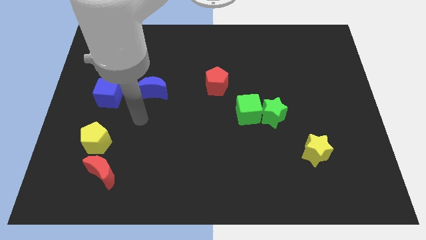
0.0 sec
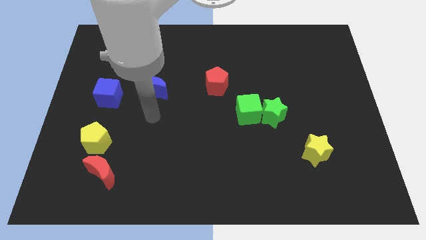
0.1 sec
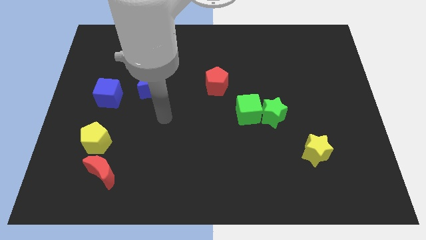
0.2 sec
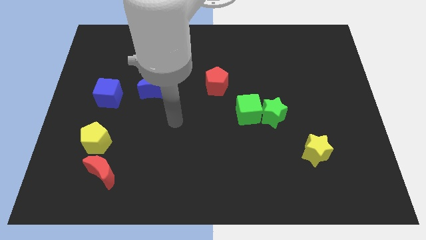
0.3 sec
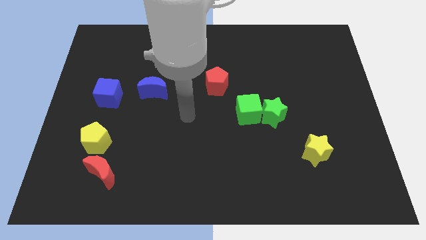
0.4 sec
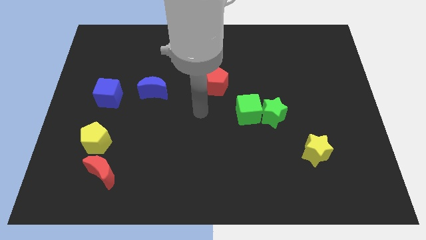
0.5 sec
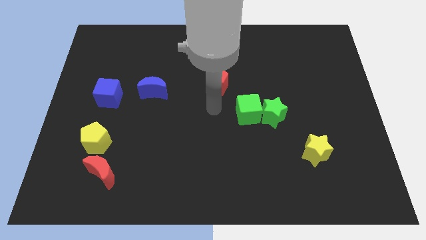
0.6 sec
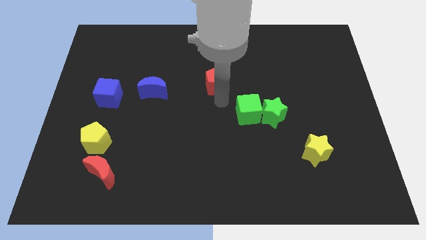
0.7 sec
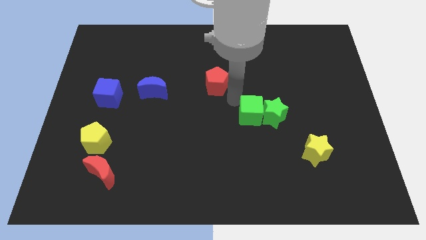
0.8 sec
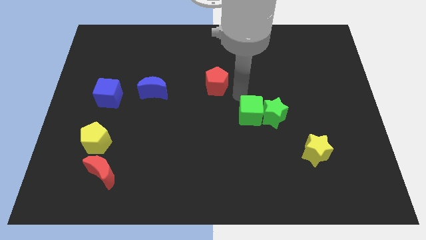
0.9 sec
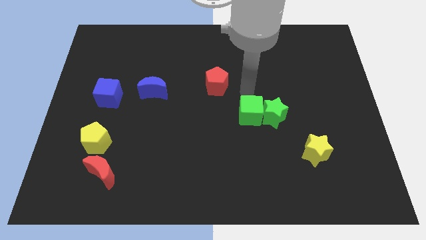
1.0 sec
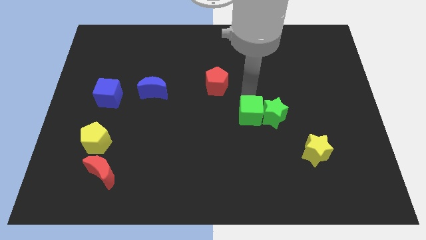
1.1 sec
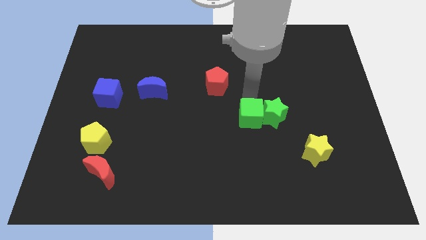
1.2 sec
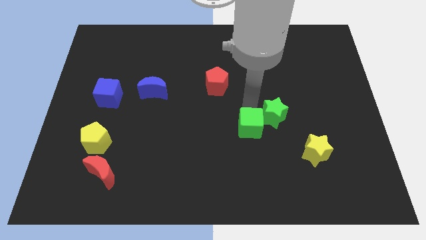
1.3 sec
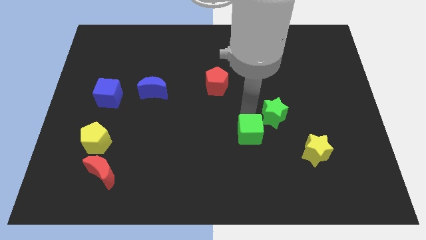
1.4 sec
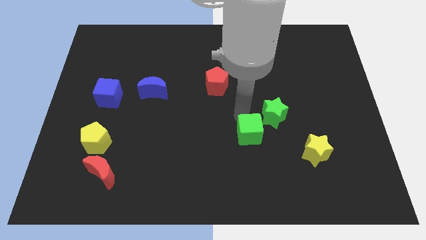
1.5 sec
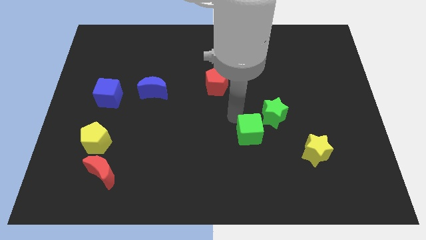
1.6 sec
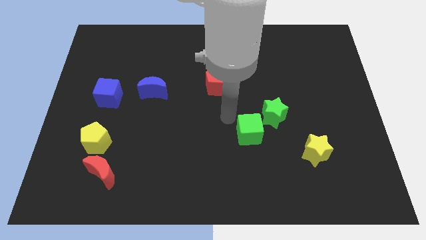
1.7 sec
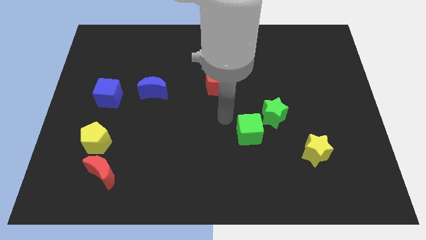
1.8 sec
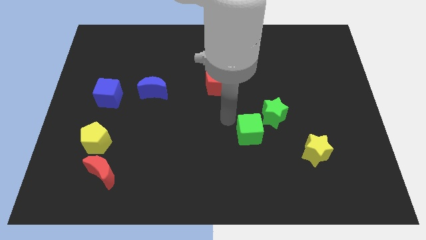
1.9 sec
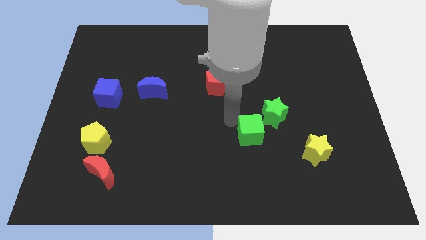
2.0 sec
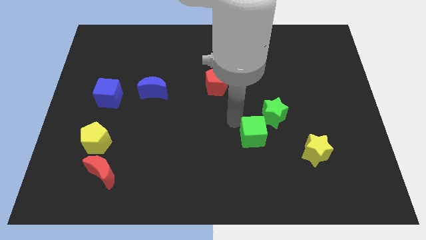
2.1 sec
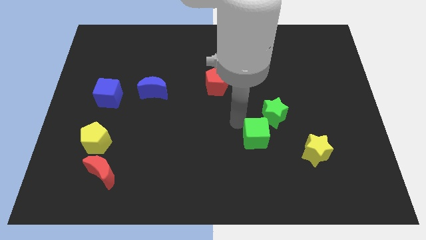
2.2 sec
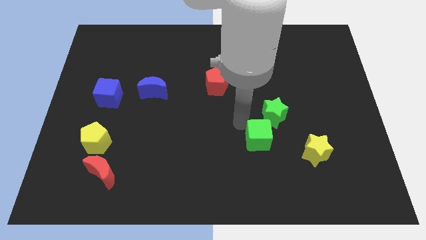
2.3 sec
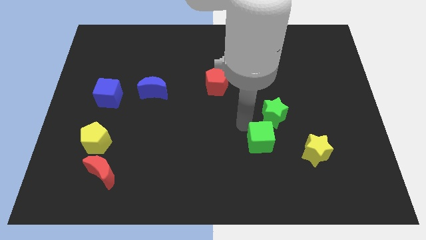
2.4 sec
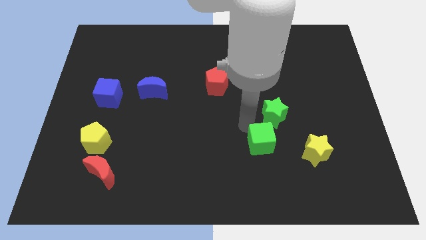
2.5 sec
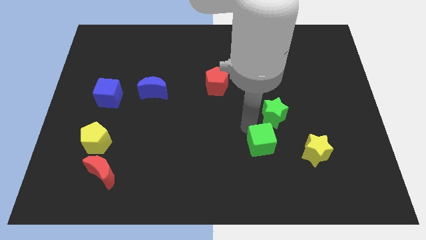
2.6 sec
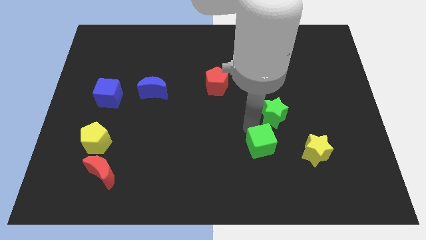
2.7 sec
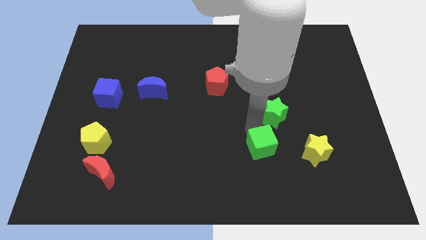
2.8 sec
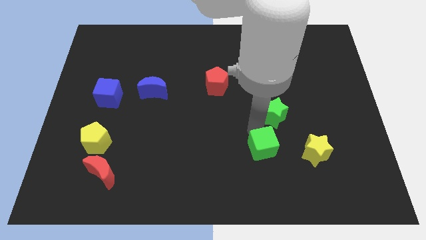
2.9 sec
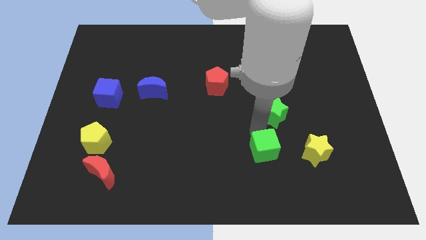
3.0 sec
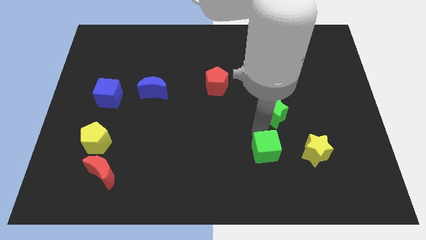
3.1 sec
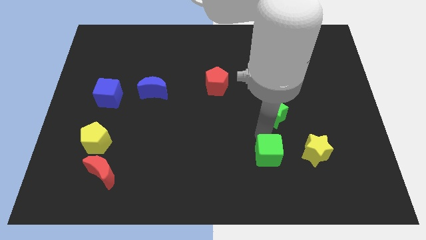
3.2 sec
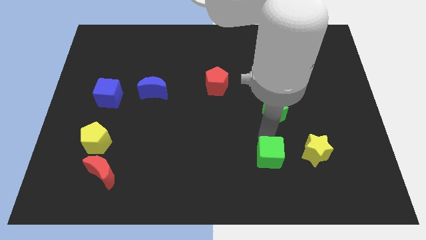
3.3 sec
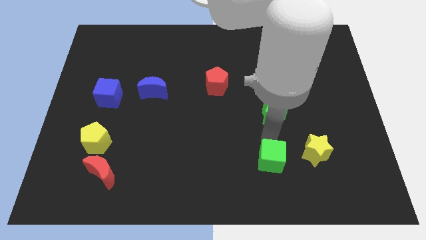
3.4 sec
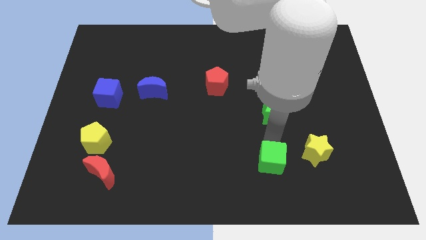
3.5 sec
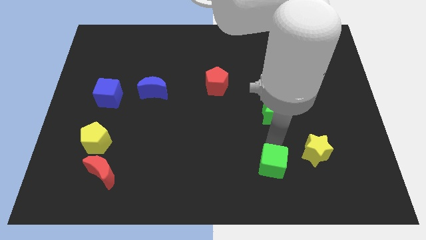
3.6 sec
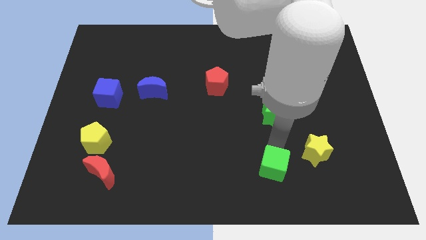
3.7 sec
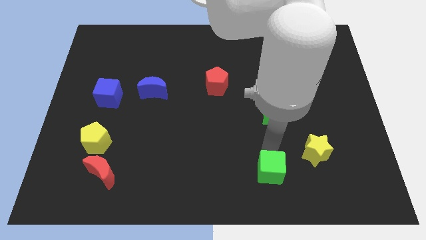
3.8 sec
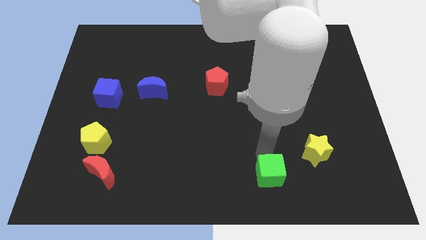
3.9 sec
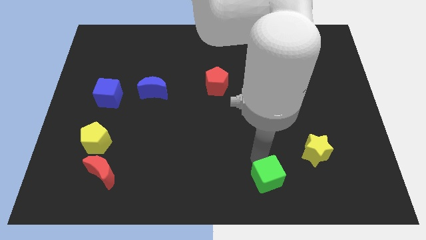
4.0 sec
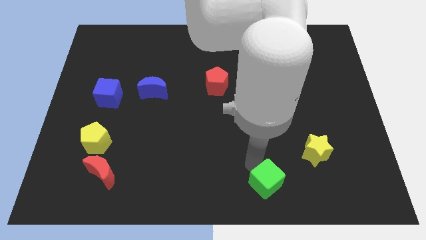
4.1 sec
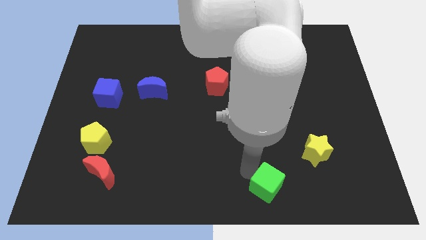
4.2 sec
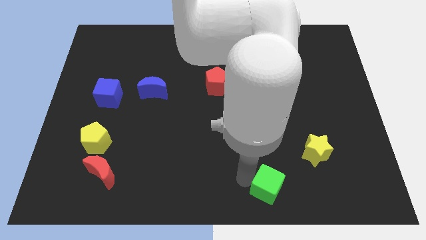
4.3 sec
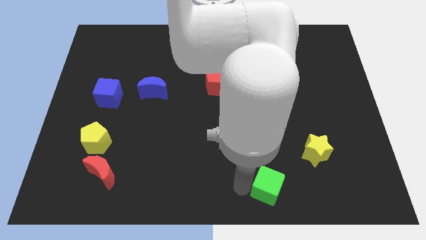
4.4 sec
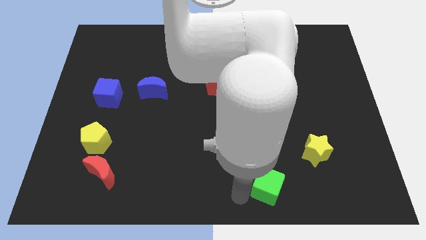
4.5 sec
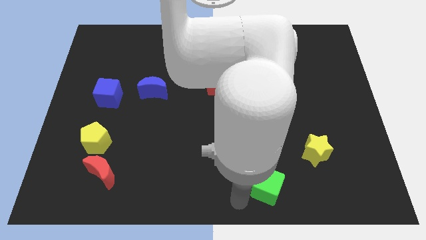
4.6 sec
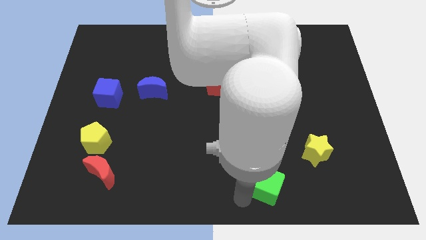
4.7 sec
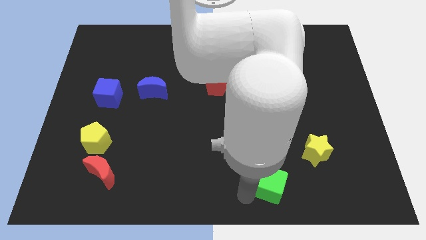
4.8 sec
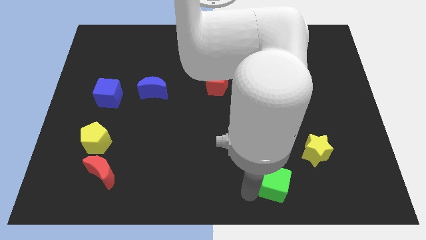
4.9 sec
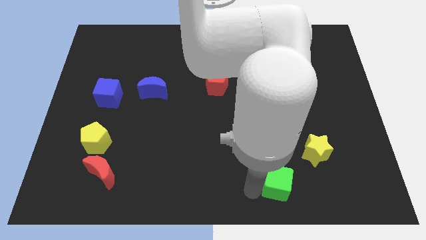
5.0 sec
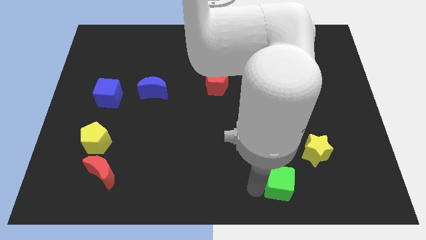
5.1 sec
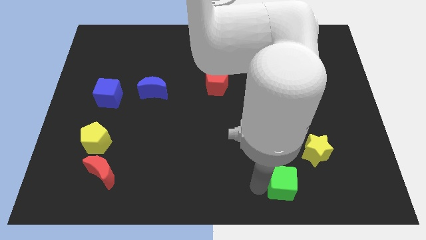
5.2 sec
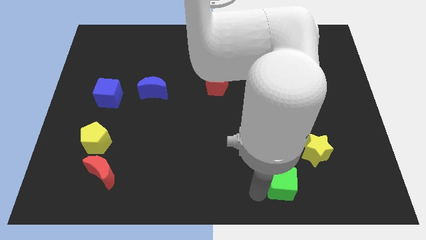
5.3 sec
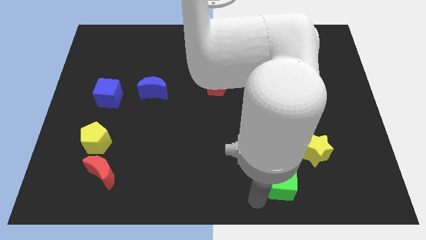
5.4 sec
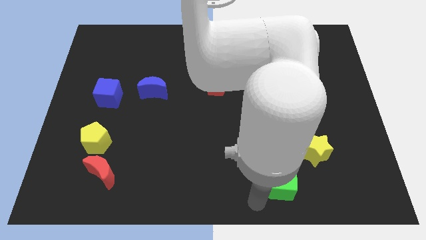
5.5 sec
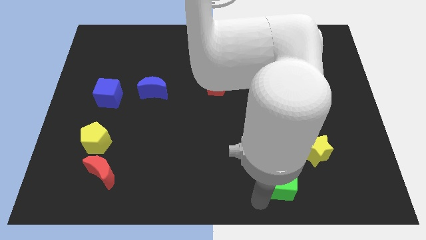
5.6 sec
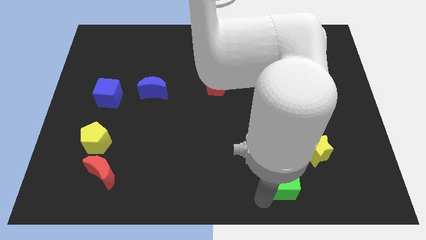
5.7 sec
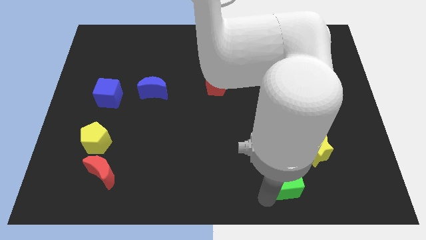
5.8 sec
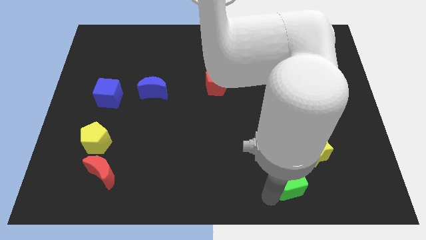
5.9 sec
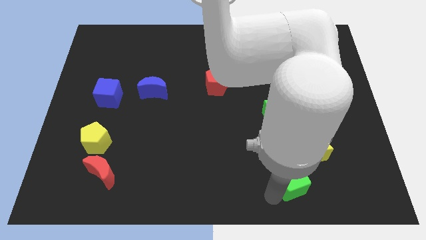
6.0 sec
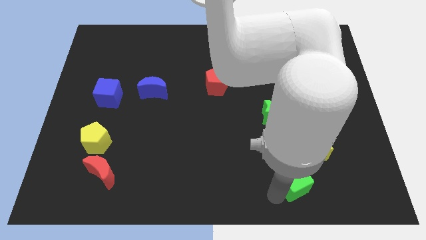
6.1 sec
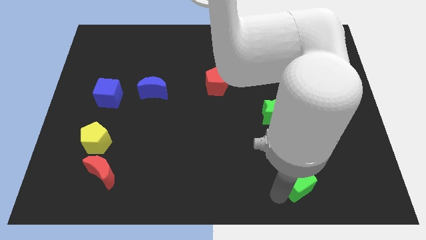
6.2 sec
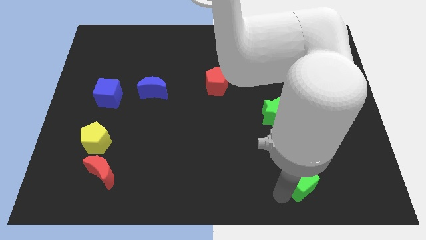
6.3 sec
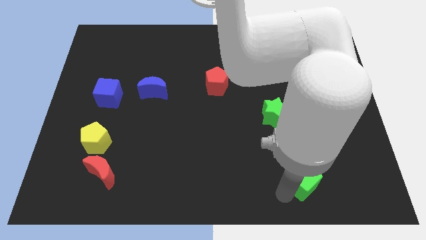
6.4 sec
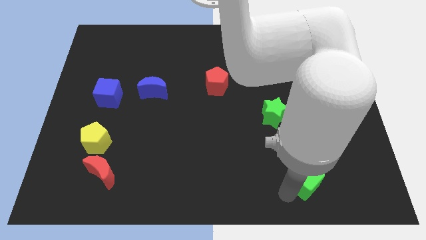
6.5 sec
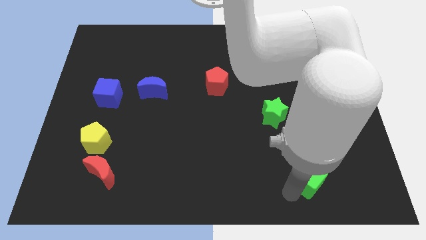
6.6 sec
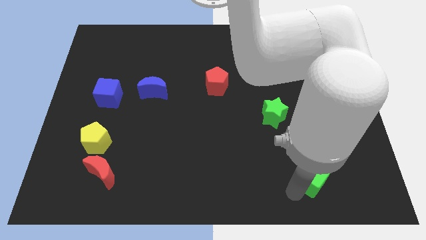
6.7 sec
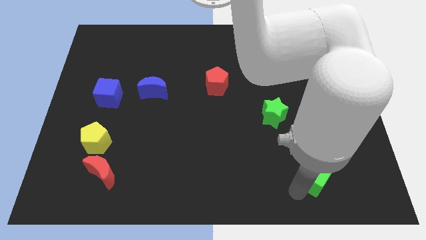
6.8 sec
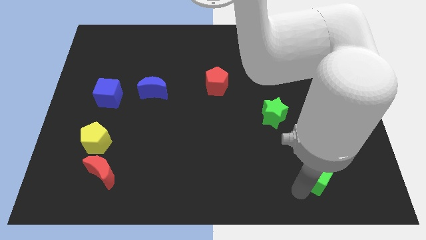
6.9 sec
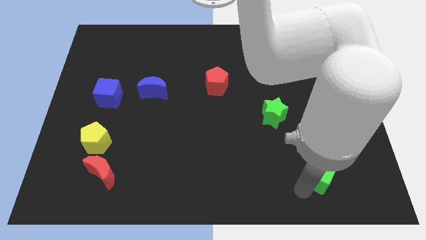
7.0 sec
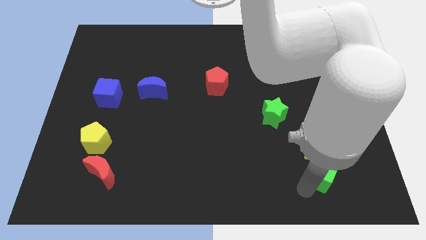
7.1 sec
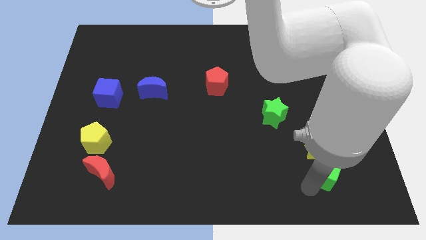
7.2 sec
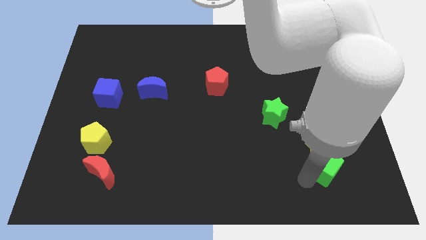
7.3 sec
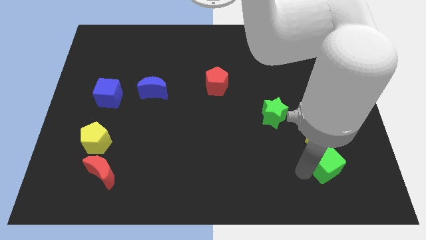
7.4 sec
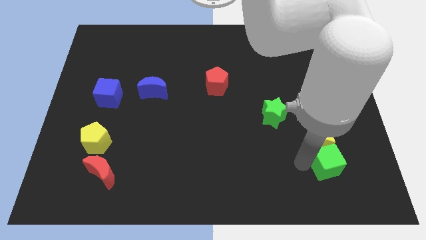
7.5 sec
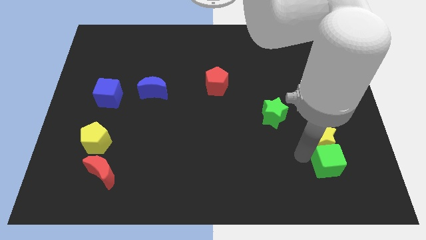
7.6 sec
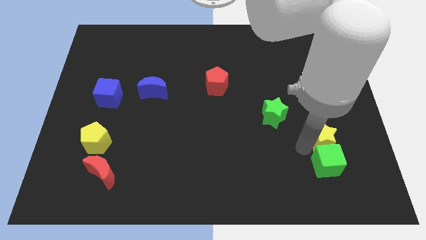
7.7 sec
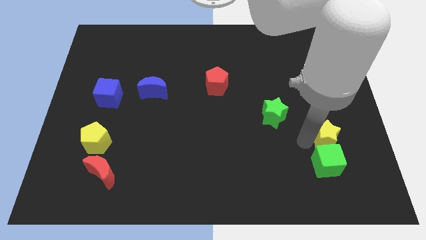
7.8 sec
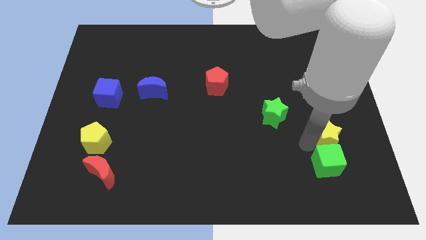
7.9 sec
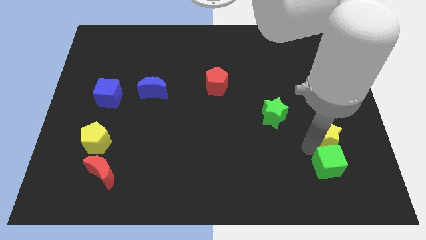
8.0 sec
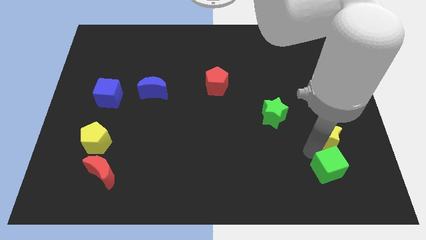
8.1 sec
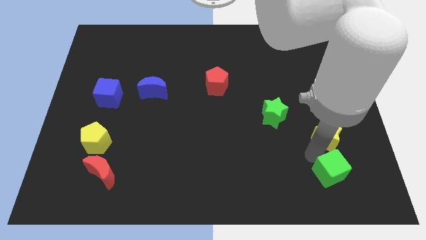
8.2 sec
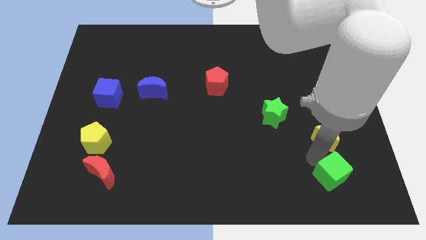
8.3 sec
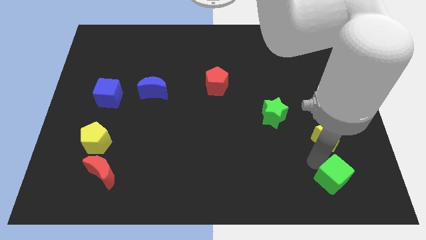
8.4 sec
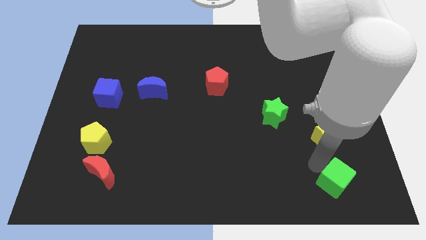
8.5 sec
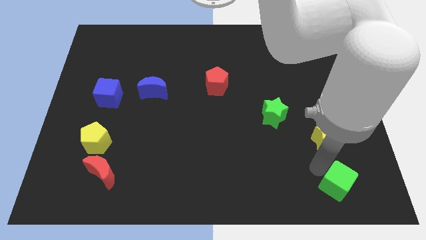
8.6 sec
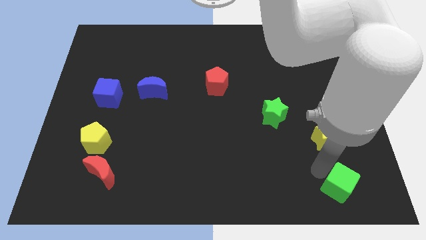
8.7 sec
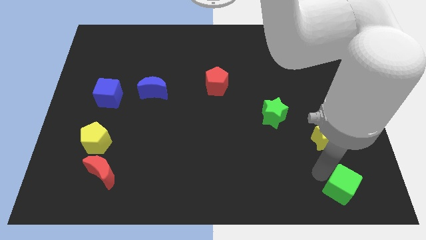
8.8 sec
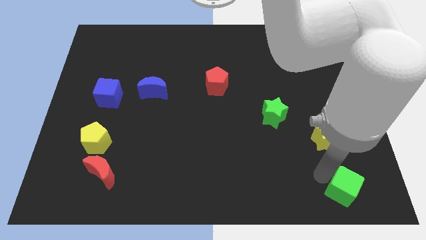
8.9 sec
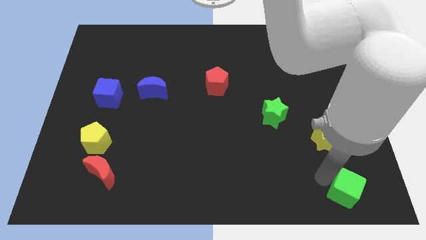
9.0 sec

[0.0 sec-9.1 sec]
put the green cube to the bottom right corner
